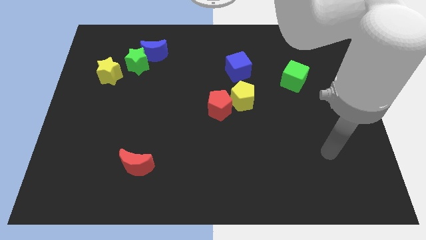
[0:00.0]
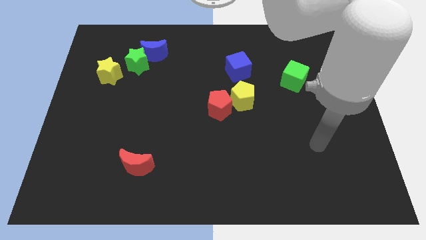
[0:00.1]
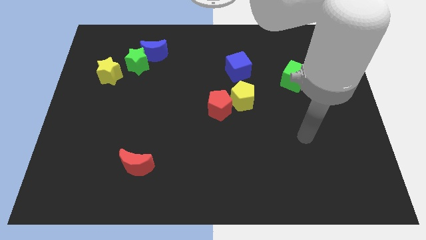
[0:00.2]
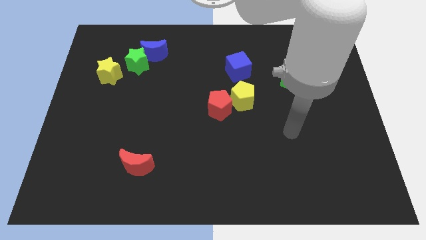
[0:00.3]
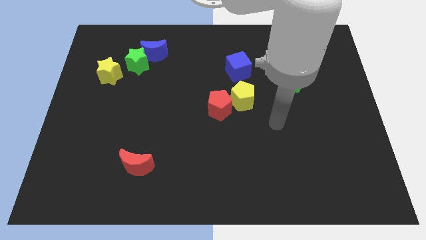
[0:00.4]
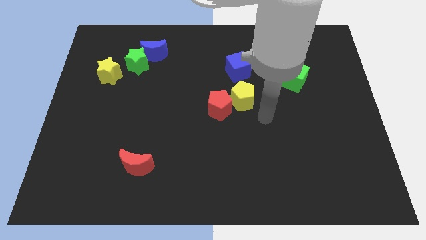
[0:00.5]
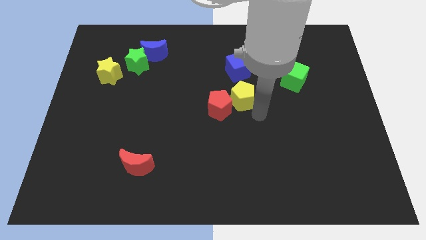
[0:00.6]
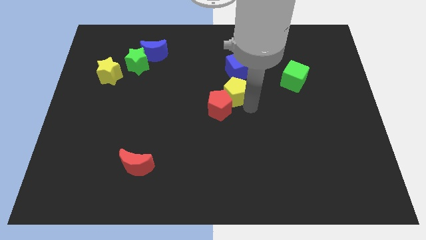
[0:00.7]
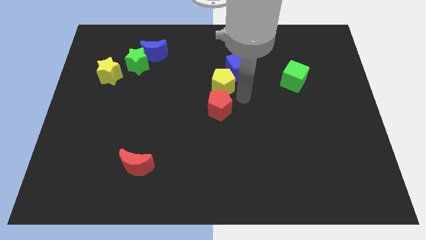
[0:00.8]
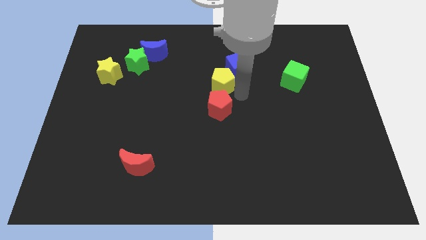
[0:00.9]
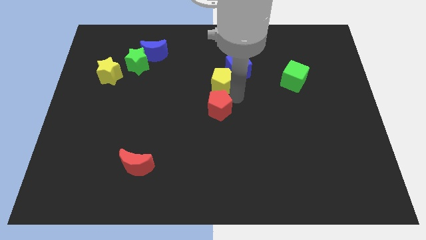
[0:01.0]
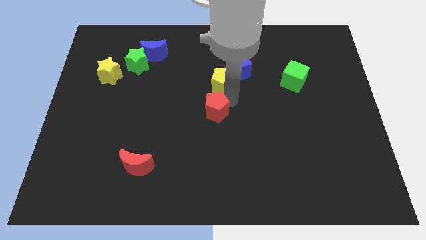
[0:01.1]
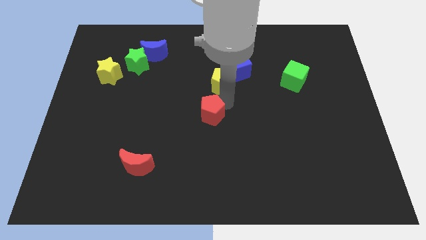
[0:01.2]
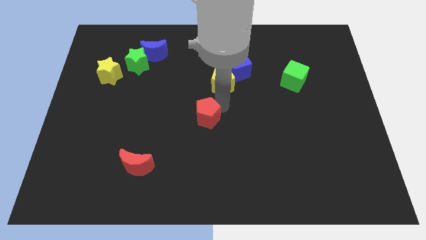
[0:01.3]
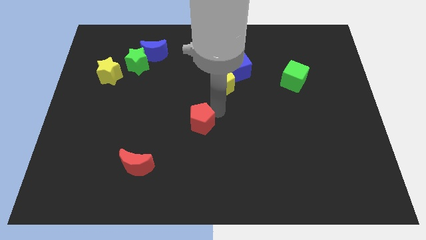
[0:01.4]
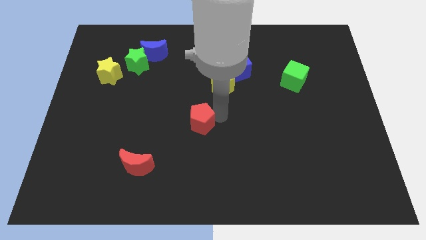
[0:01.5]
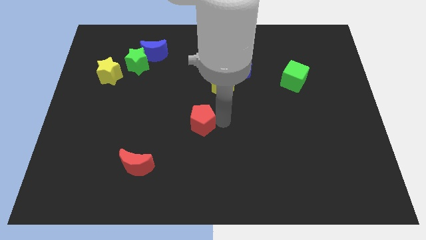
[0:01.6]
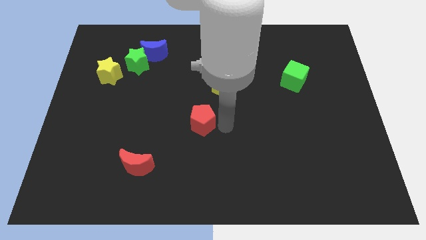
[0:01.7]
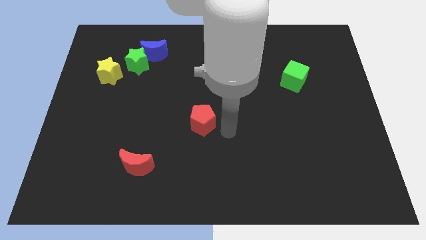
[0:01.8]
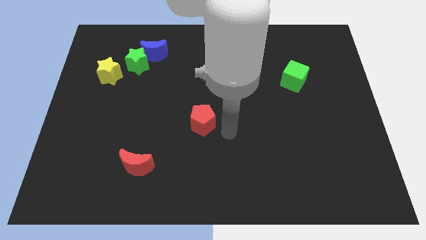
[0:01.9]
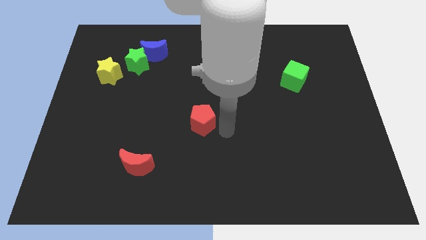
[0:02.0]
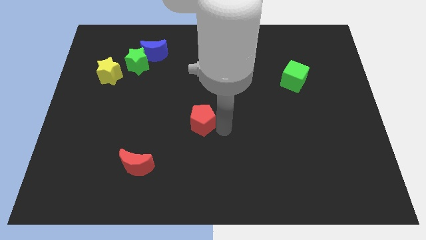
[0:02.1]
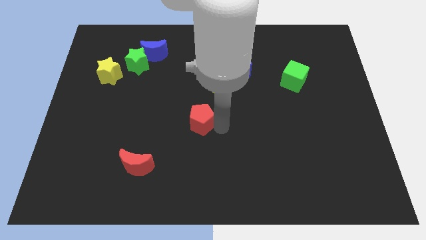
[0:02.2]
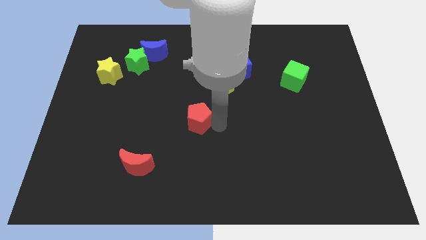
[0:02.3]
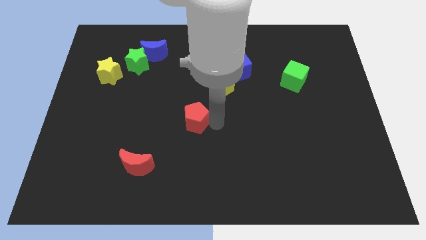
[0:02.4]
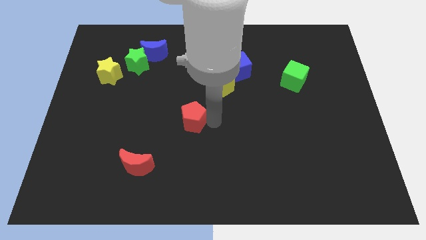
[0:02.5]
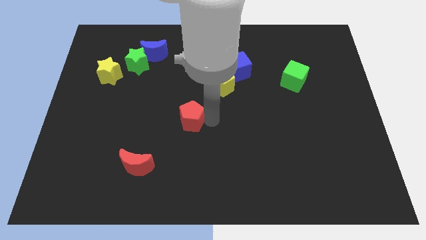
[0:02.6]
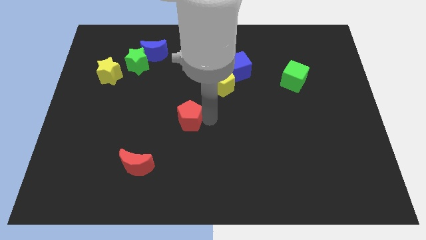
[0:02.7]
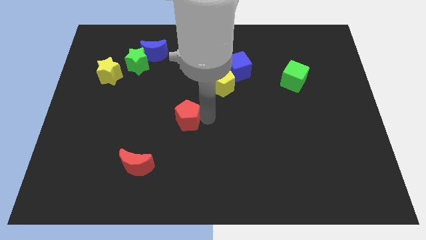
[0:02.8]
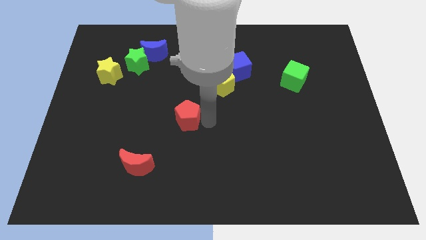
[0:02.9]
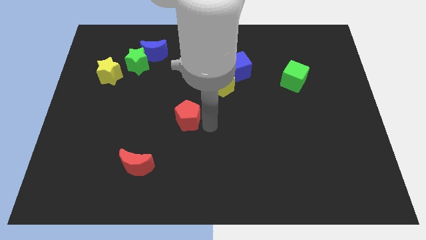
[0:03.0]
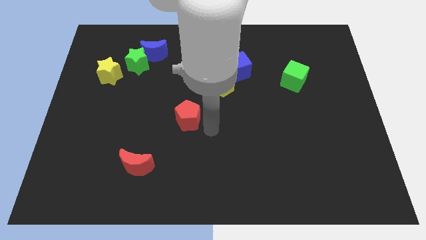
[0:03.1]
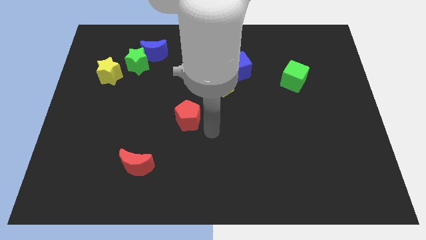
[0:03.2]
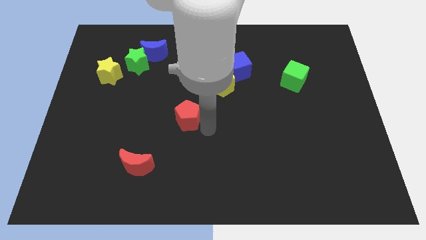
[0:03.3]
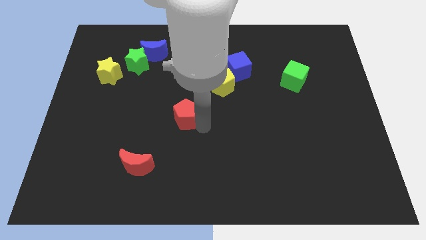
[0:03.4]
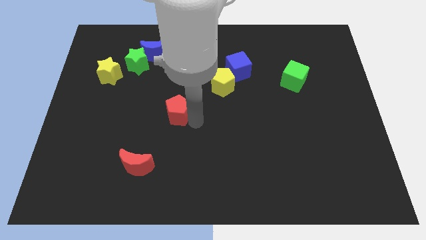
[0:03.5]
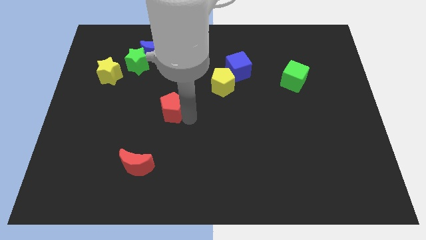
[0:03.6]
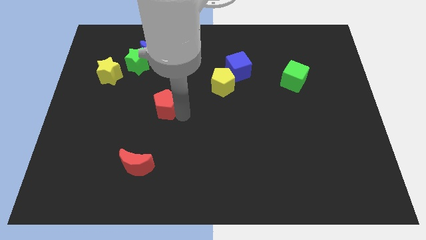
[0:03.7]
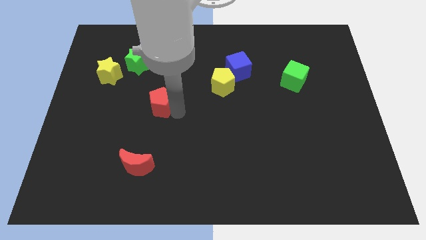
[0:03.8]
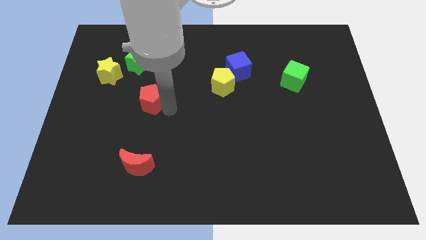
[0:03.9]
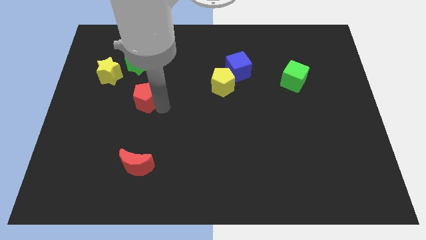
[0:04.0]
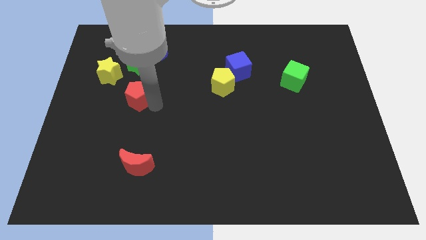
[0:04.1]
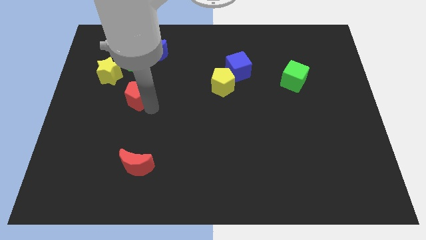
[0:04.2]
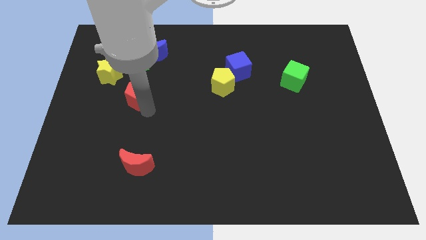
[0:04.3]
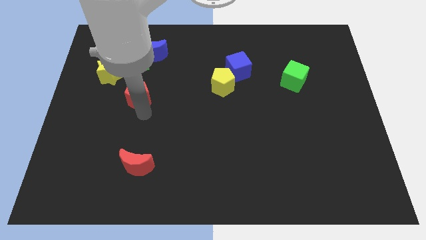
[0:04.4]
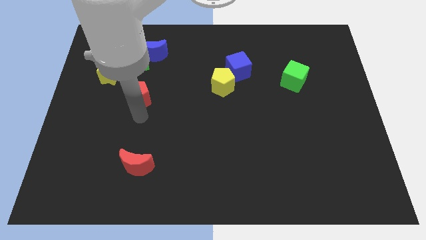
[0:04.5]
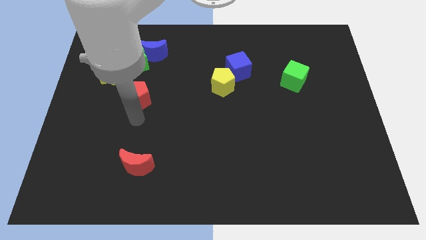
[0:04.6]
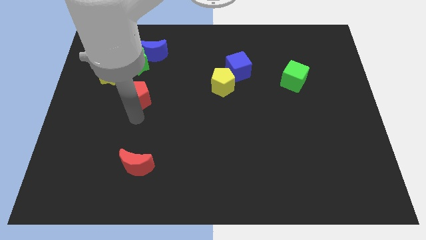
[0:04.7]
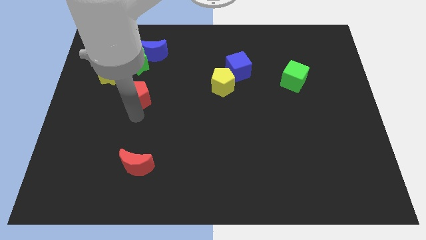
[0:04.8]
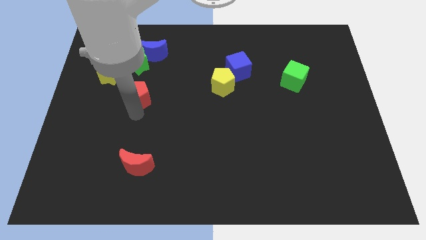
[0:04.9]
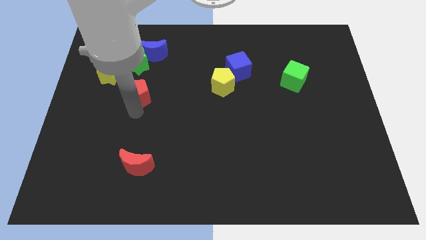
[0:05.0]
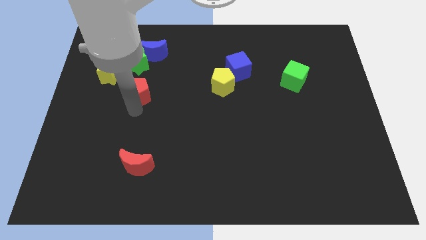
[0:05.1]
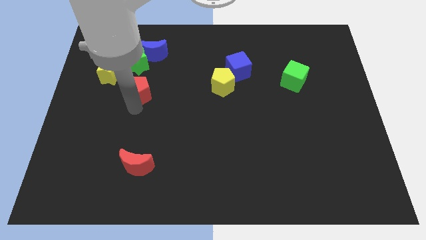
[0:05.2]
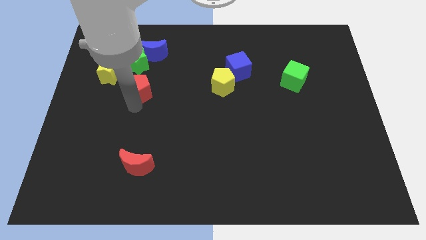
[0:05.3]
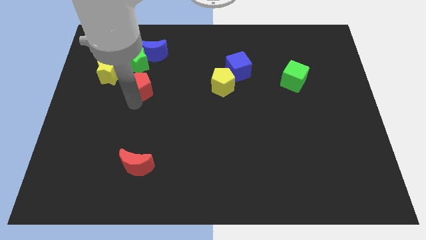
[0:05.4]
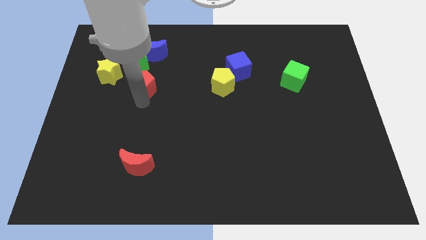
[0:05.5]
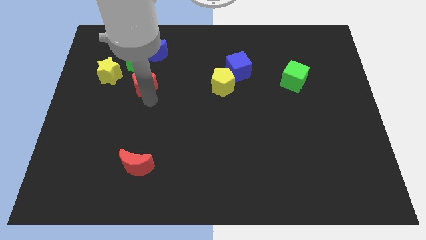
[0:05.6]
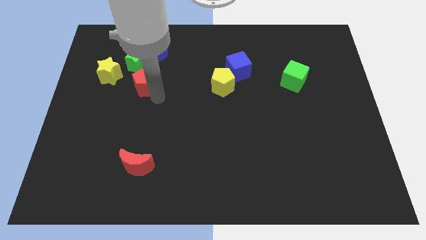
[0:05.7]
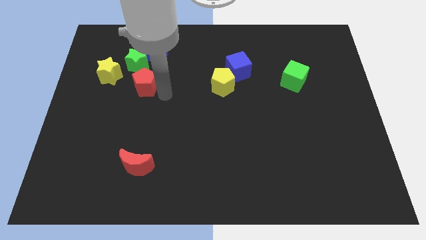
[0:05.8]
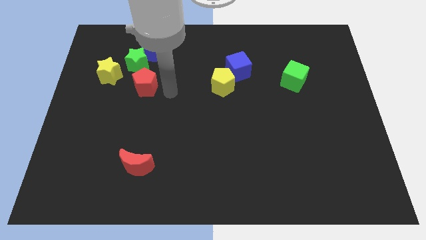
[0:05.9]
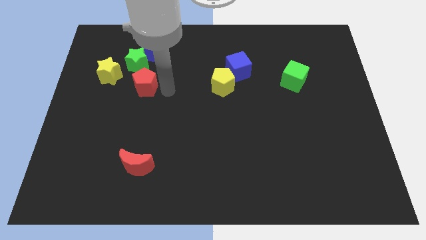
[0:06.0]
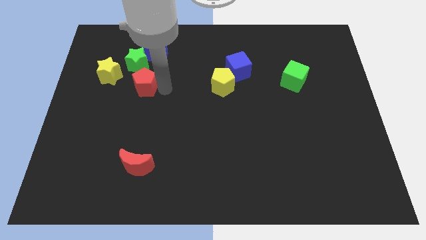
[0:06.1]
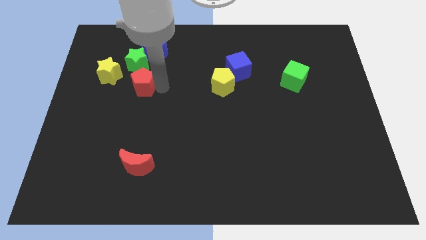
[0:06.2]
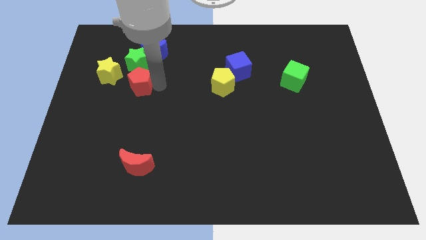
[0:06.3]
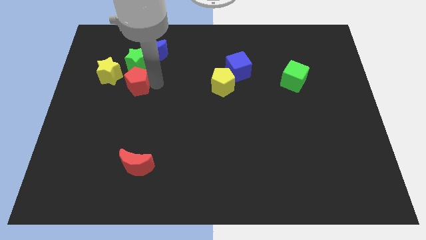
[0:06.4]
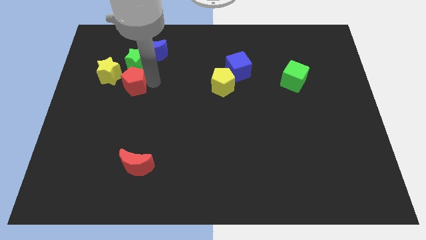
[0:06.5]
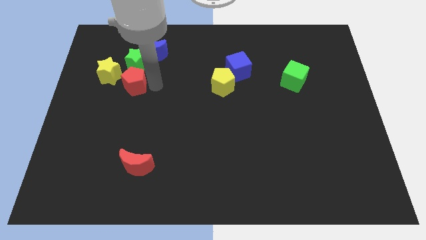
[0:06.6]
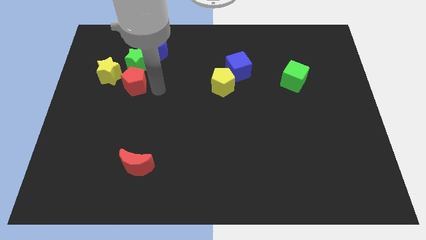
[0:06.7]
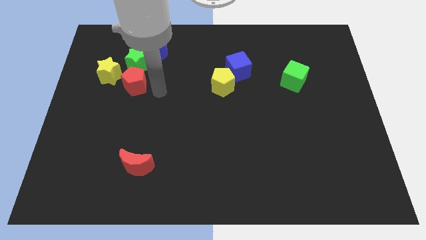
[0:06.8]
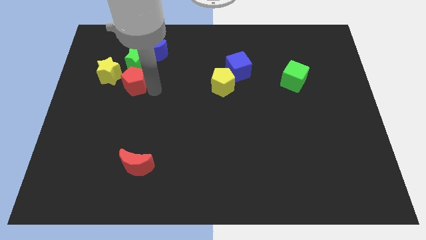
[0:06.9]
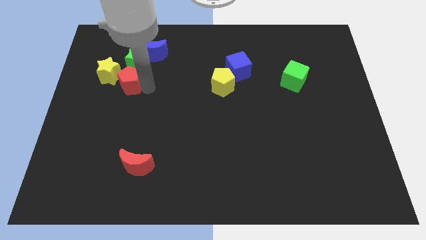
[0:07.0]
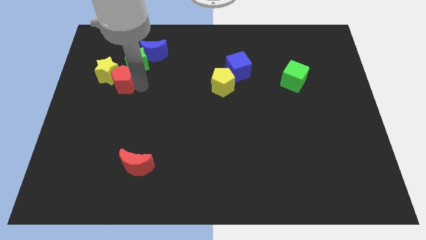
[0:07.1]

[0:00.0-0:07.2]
slide the red pentagon next to the yellow star
